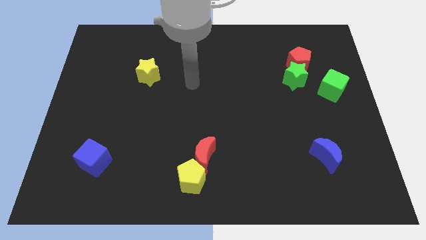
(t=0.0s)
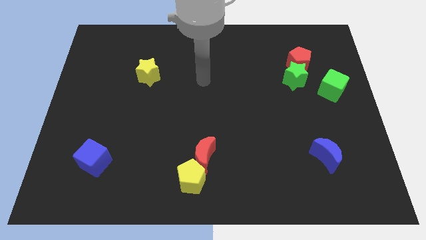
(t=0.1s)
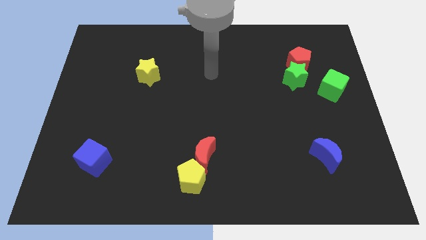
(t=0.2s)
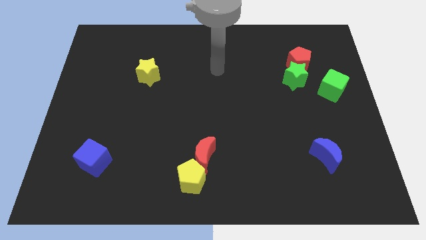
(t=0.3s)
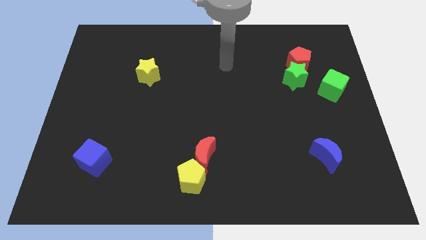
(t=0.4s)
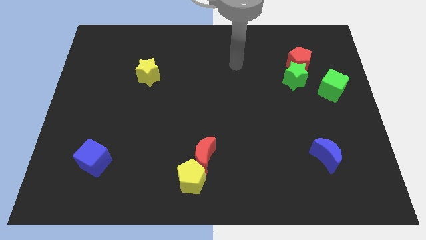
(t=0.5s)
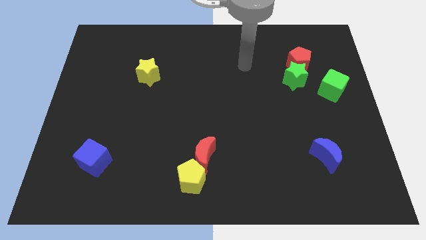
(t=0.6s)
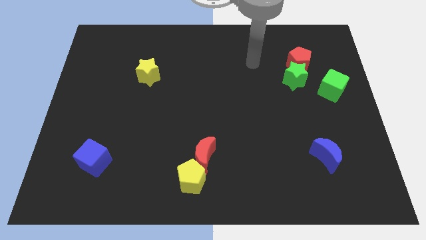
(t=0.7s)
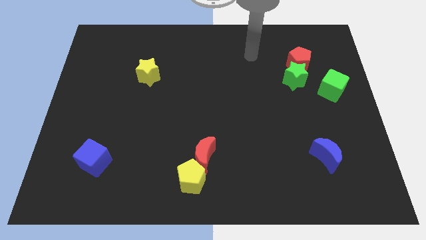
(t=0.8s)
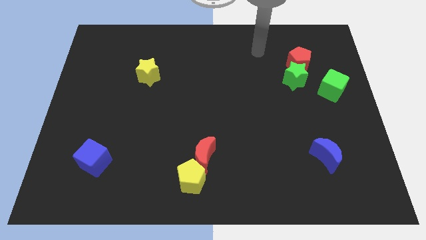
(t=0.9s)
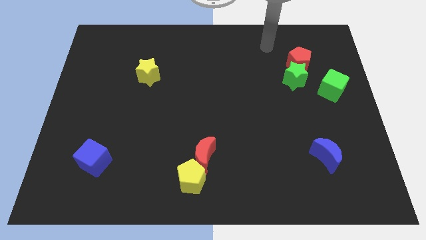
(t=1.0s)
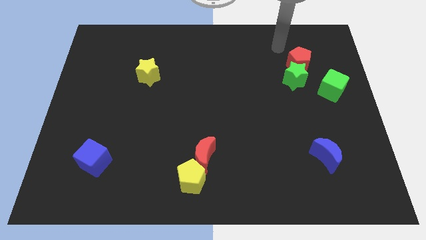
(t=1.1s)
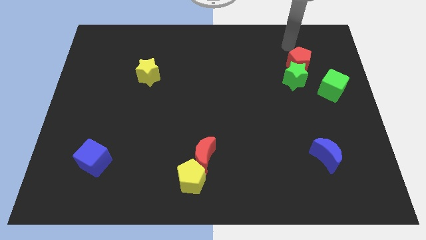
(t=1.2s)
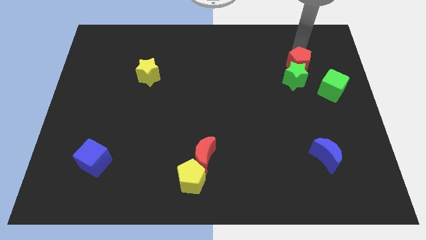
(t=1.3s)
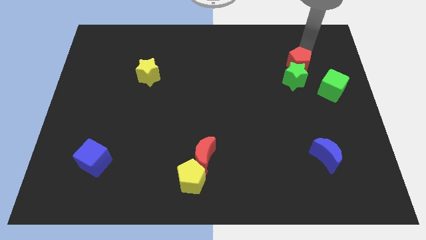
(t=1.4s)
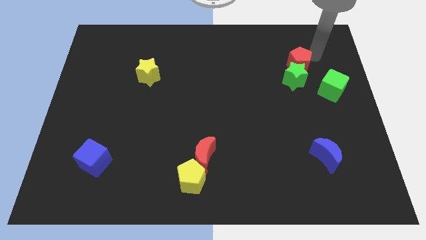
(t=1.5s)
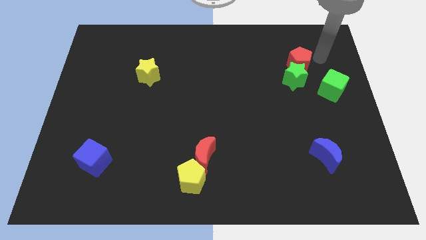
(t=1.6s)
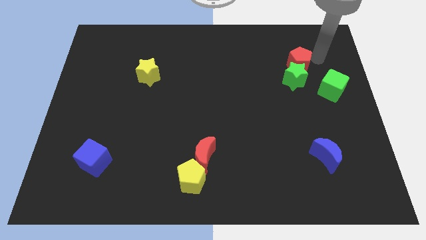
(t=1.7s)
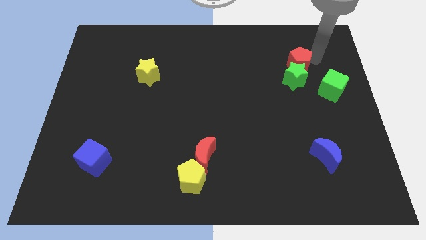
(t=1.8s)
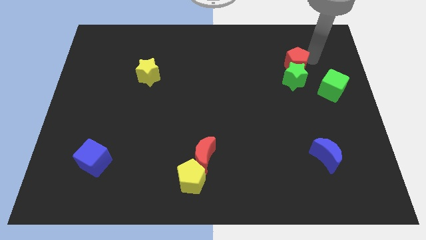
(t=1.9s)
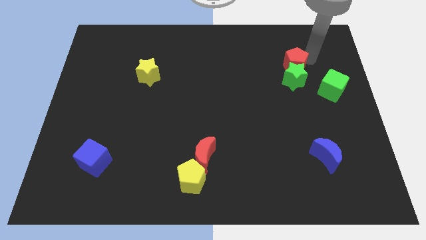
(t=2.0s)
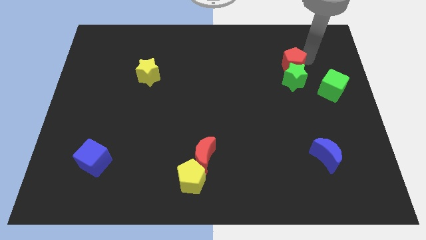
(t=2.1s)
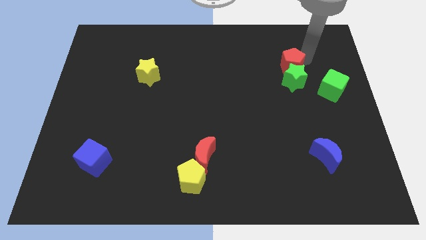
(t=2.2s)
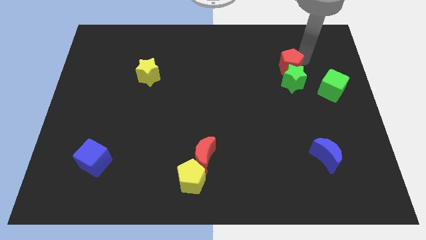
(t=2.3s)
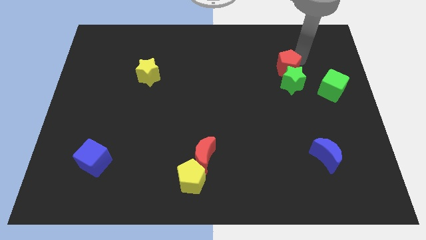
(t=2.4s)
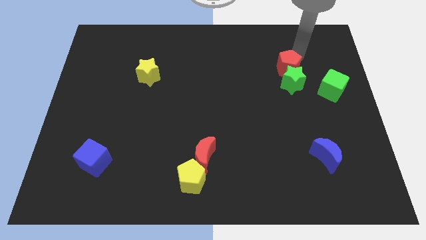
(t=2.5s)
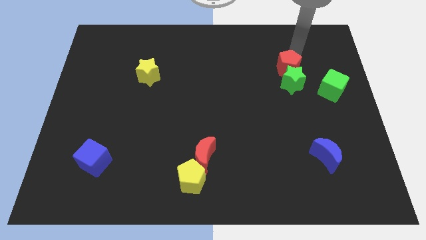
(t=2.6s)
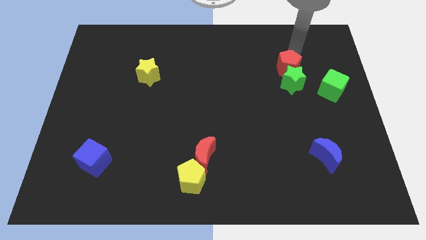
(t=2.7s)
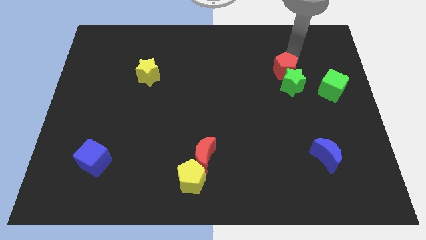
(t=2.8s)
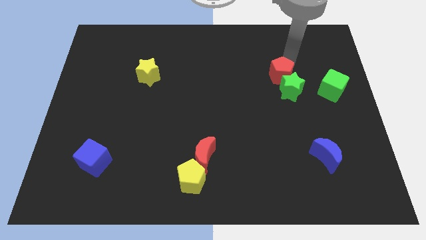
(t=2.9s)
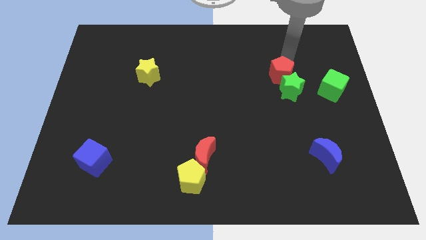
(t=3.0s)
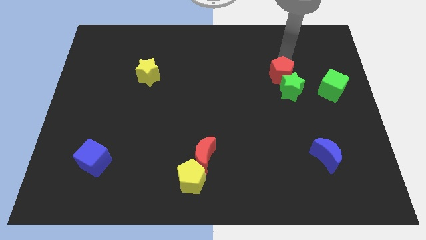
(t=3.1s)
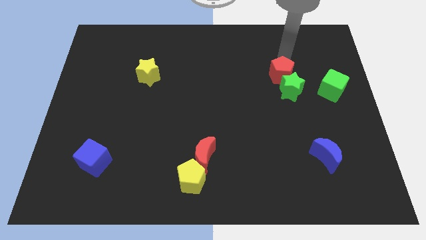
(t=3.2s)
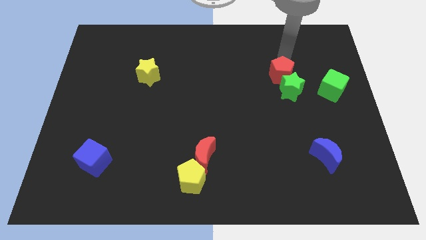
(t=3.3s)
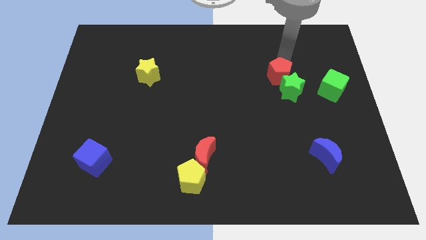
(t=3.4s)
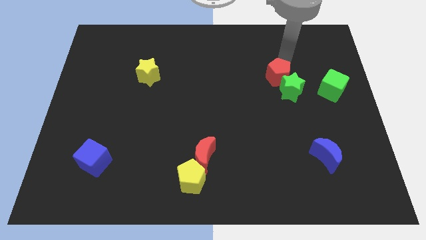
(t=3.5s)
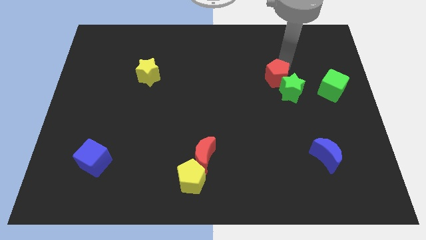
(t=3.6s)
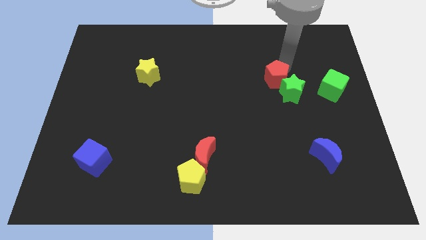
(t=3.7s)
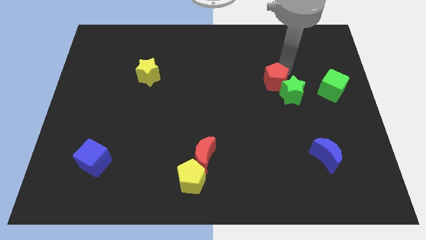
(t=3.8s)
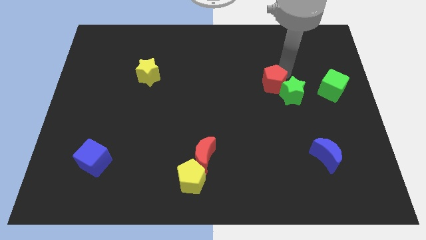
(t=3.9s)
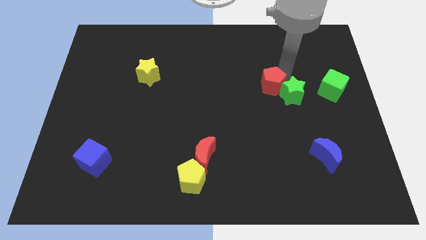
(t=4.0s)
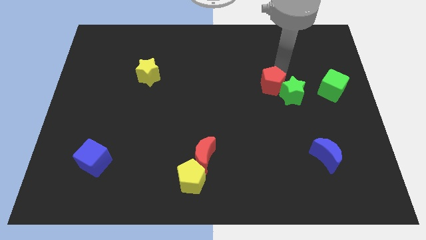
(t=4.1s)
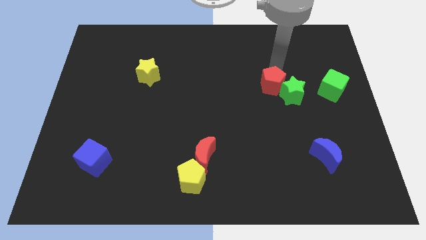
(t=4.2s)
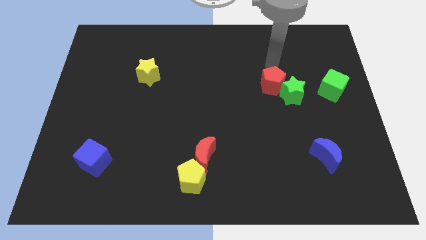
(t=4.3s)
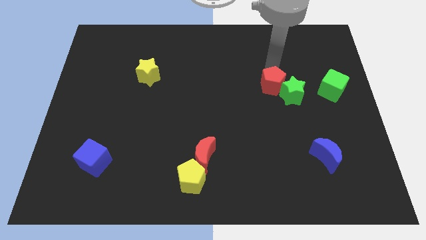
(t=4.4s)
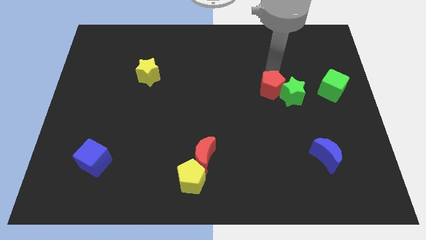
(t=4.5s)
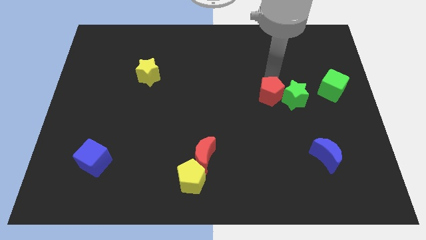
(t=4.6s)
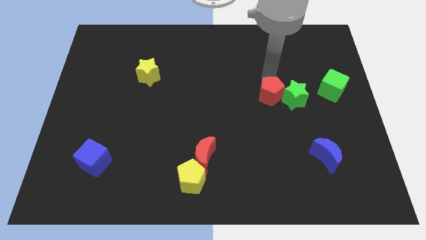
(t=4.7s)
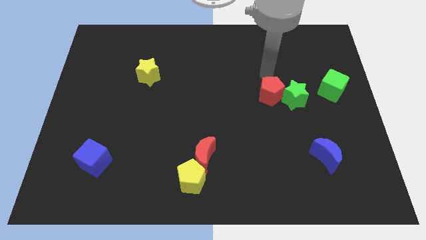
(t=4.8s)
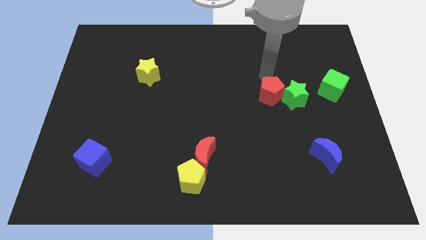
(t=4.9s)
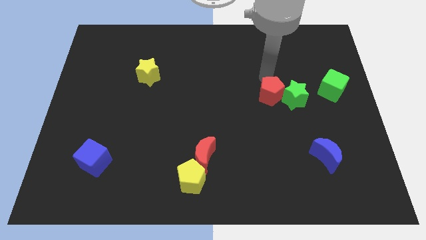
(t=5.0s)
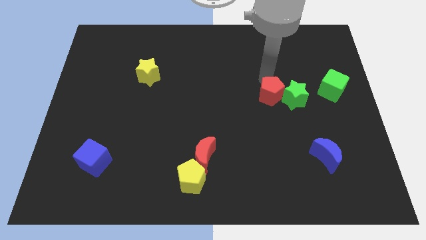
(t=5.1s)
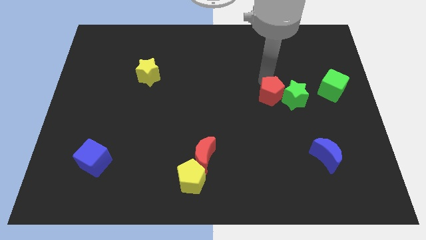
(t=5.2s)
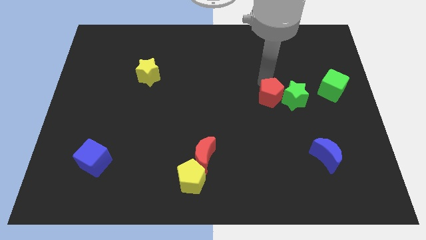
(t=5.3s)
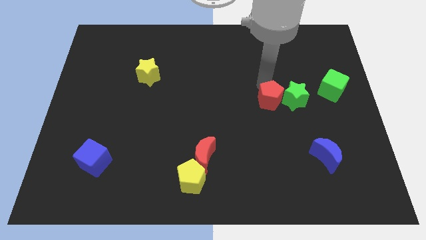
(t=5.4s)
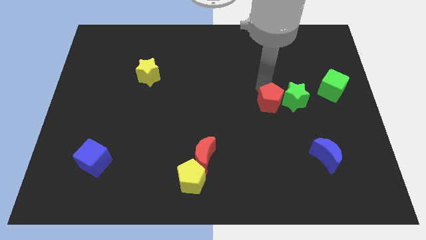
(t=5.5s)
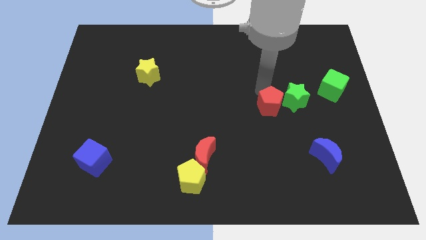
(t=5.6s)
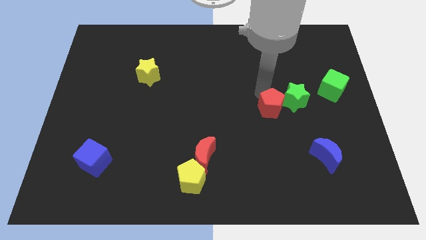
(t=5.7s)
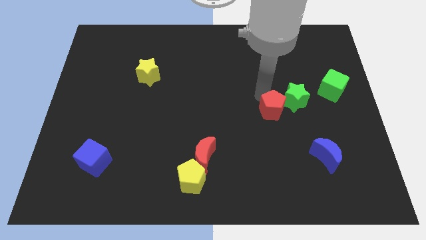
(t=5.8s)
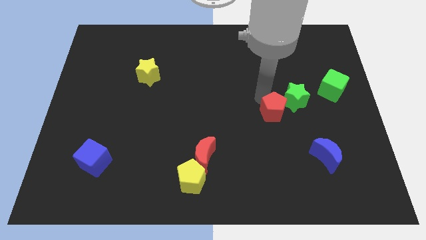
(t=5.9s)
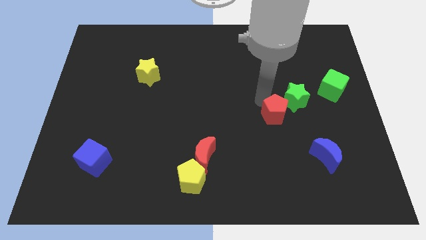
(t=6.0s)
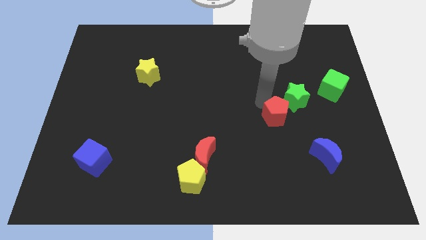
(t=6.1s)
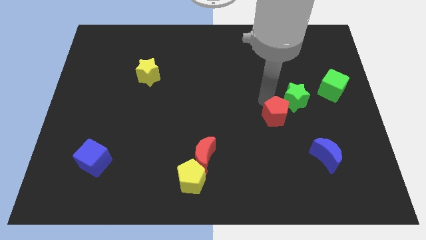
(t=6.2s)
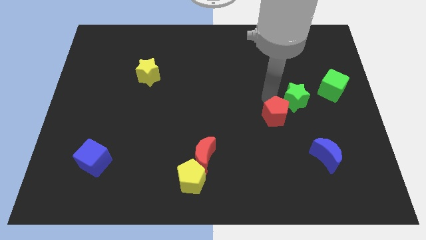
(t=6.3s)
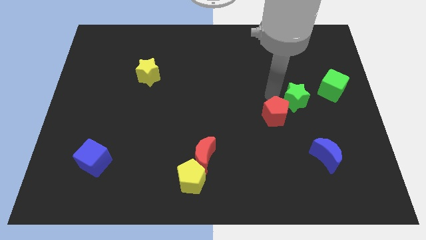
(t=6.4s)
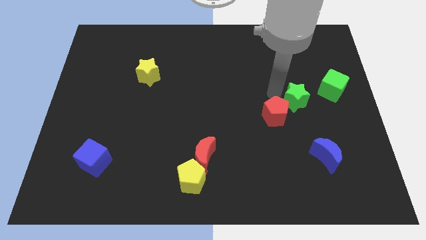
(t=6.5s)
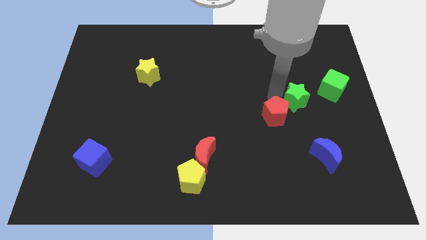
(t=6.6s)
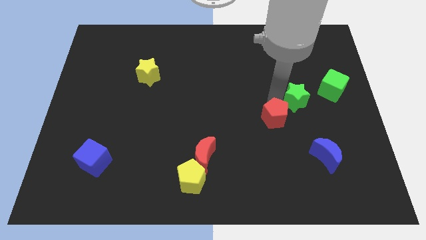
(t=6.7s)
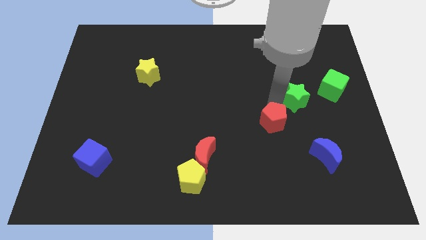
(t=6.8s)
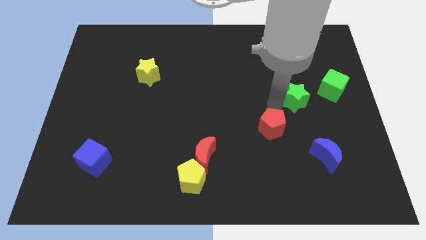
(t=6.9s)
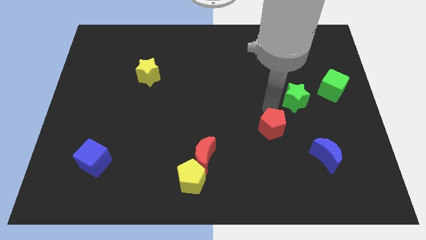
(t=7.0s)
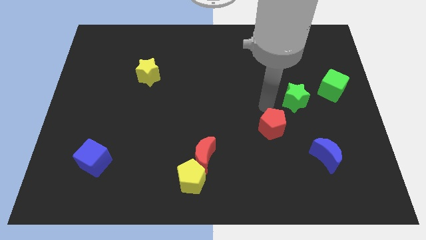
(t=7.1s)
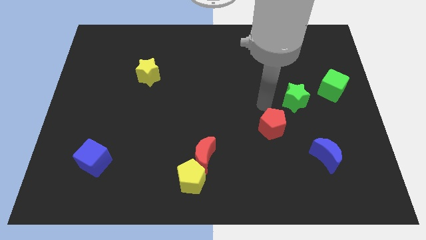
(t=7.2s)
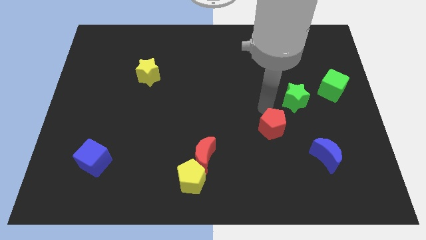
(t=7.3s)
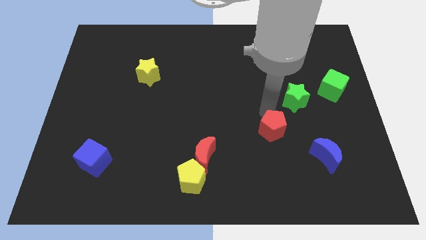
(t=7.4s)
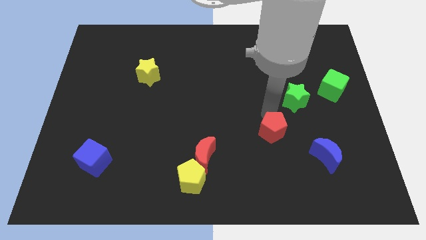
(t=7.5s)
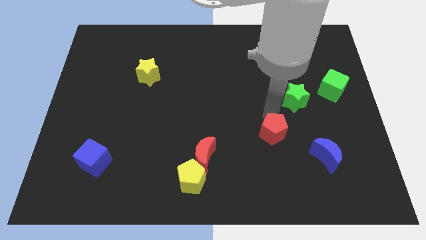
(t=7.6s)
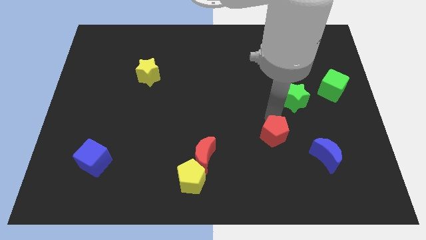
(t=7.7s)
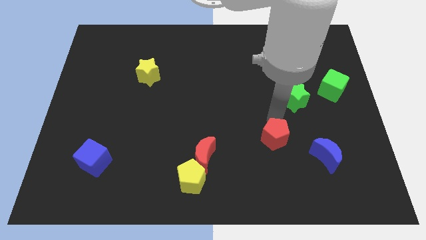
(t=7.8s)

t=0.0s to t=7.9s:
push the red pentagon just left of the blue moon
